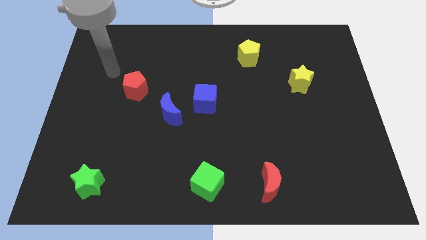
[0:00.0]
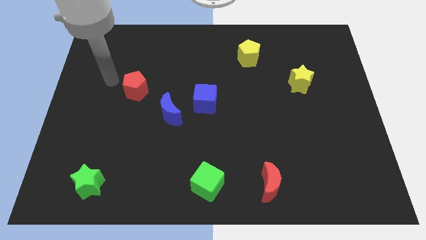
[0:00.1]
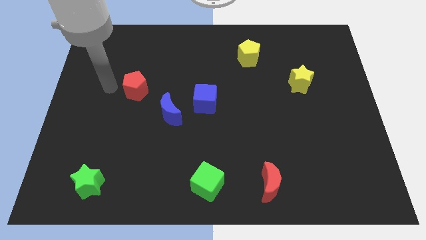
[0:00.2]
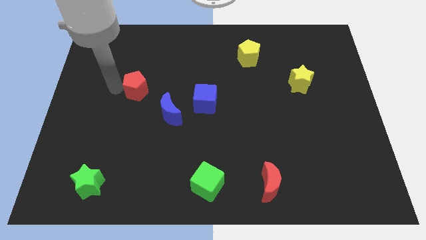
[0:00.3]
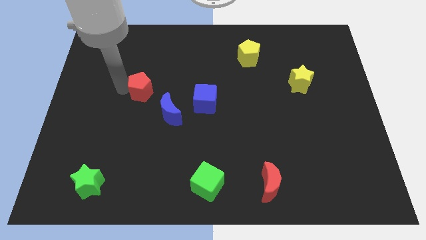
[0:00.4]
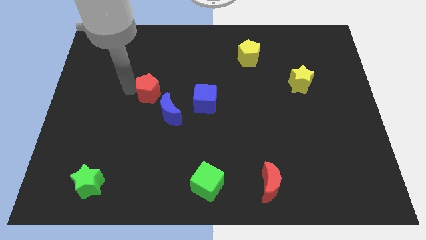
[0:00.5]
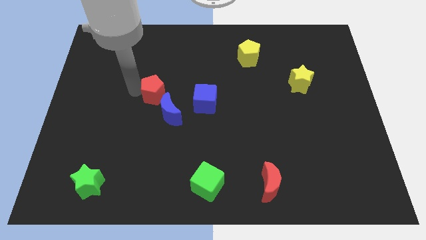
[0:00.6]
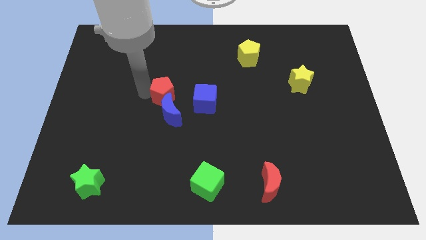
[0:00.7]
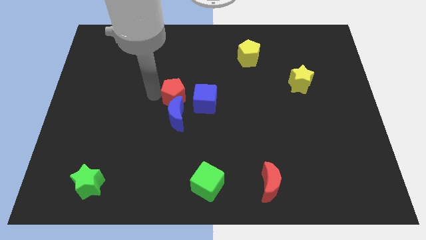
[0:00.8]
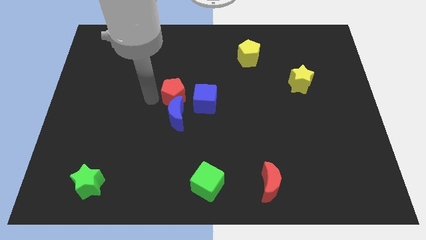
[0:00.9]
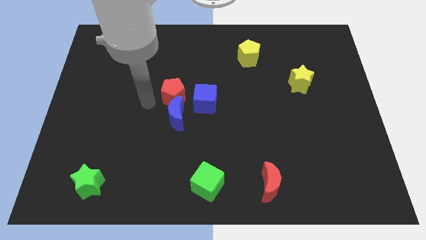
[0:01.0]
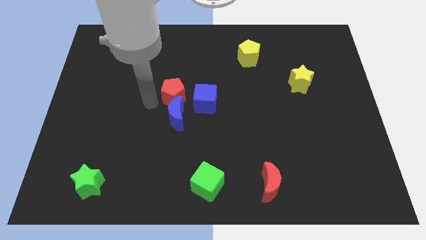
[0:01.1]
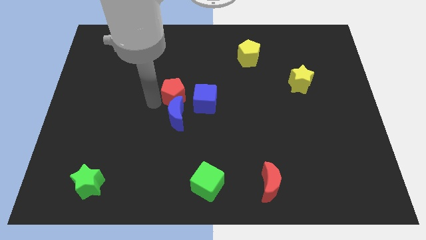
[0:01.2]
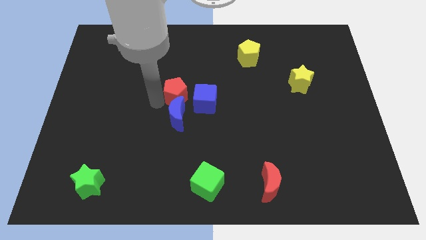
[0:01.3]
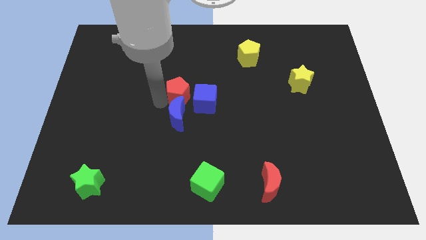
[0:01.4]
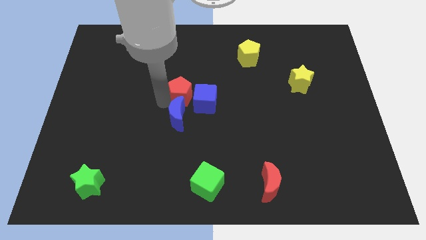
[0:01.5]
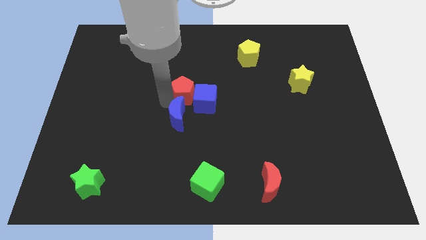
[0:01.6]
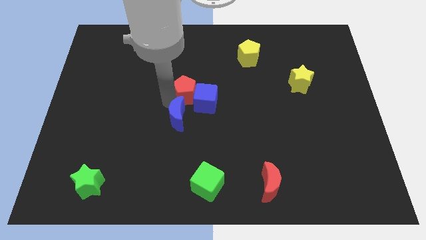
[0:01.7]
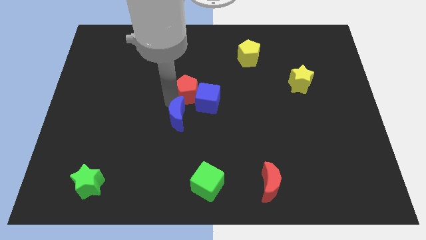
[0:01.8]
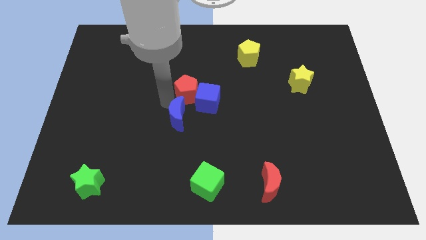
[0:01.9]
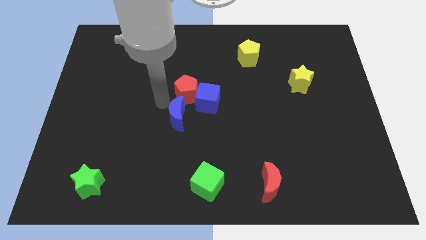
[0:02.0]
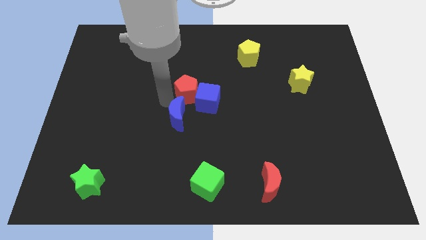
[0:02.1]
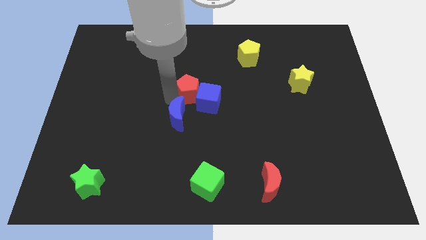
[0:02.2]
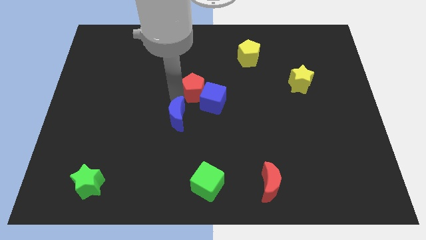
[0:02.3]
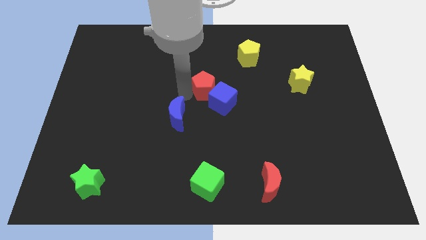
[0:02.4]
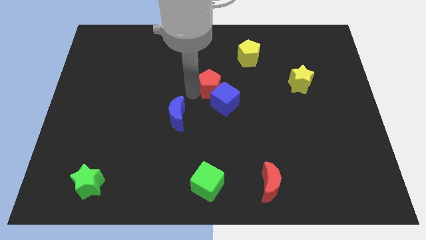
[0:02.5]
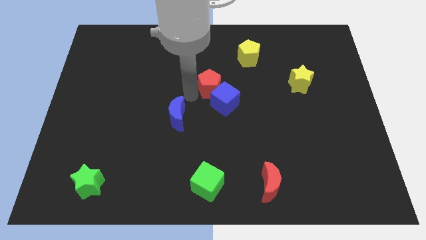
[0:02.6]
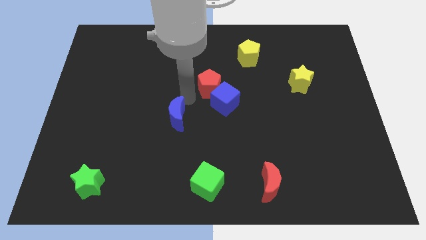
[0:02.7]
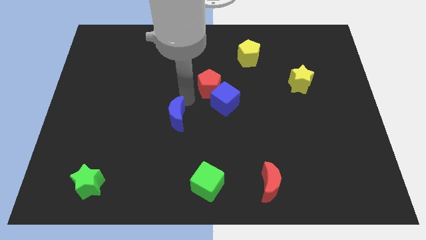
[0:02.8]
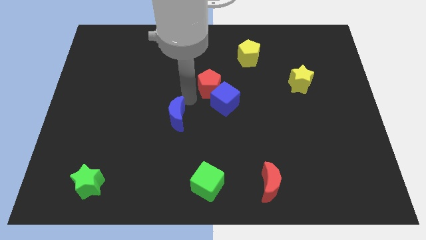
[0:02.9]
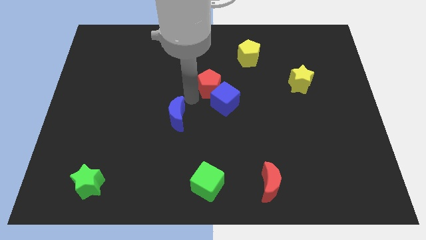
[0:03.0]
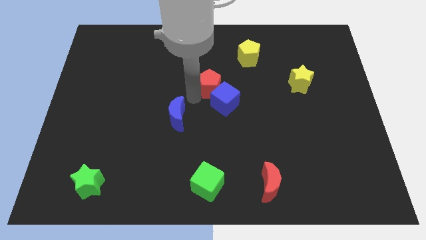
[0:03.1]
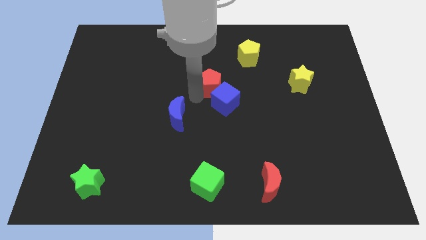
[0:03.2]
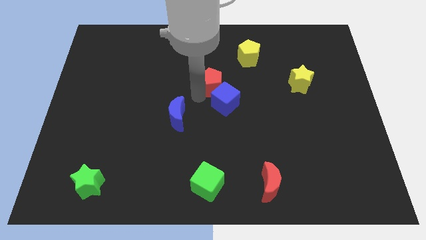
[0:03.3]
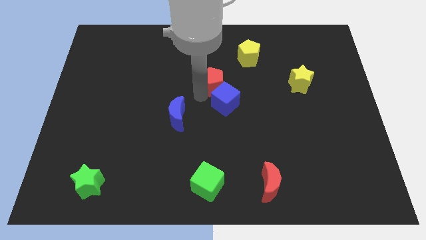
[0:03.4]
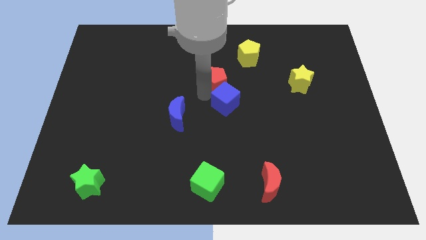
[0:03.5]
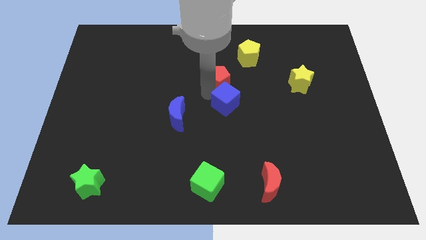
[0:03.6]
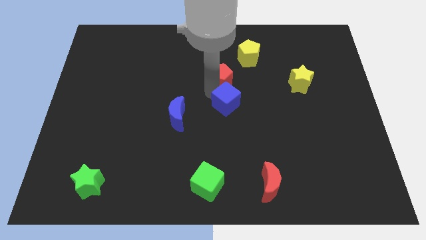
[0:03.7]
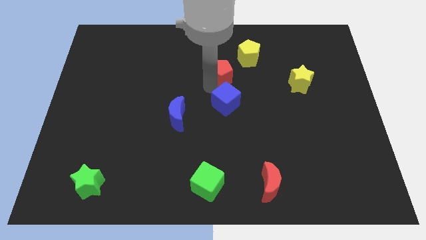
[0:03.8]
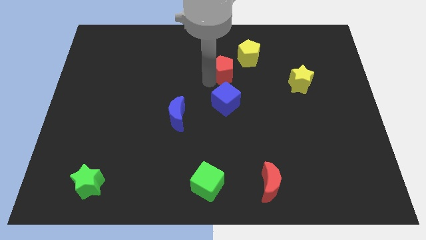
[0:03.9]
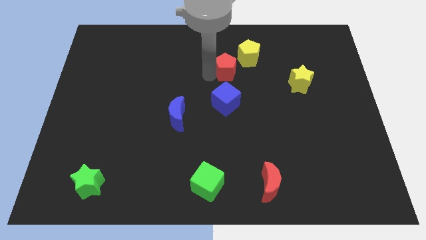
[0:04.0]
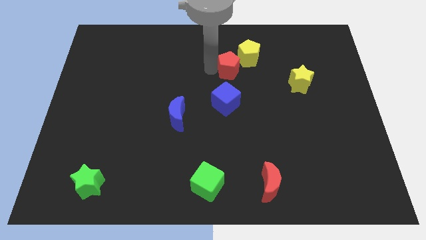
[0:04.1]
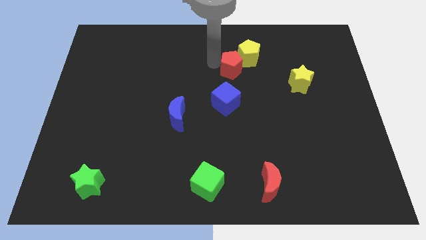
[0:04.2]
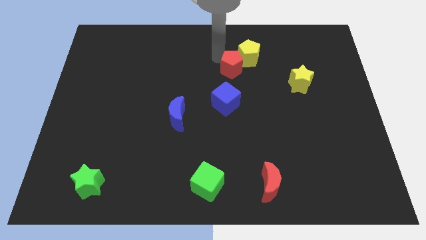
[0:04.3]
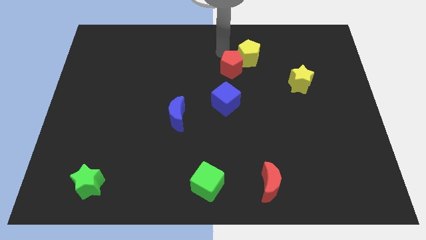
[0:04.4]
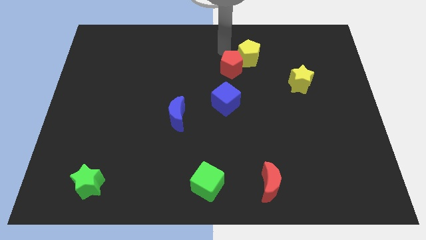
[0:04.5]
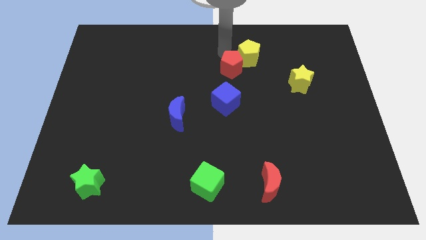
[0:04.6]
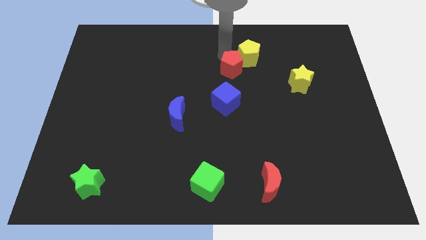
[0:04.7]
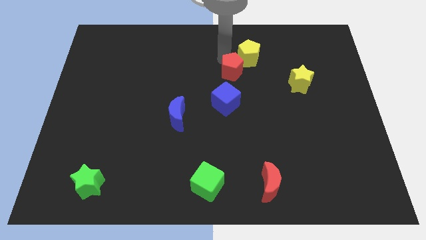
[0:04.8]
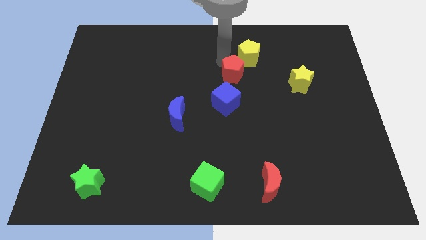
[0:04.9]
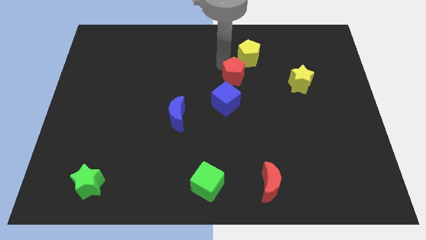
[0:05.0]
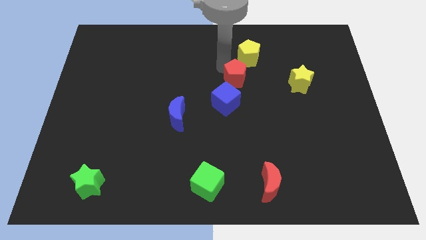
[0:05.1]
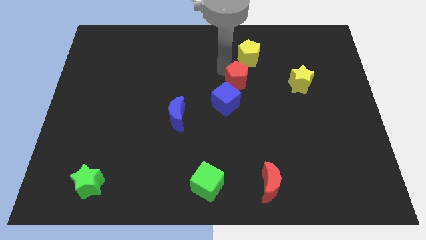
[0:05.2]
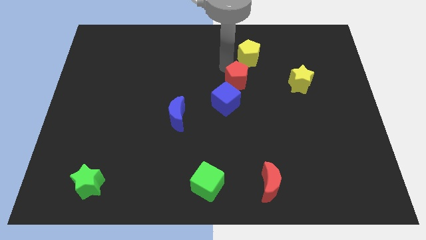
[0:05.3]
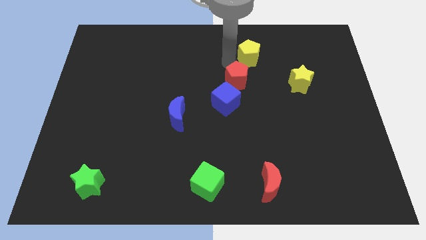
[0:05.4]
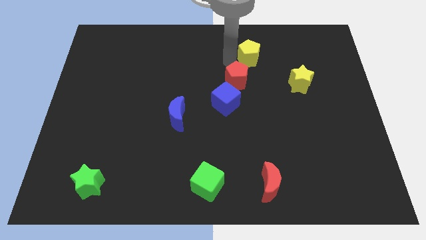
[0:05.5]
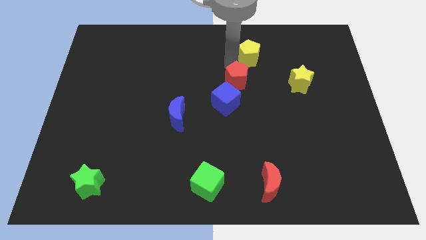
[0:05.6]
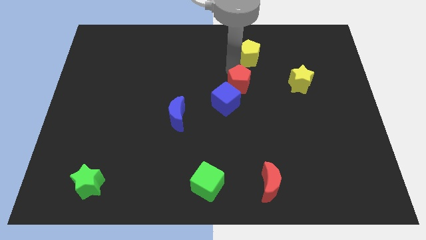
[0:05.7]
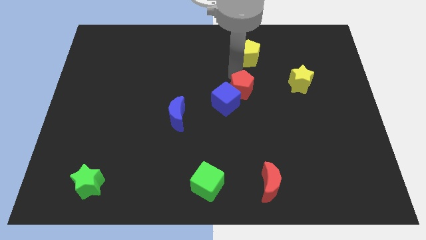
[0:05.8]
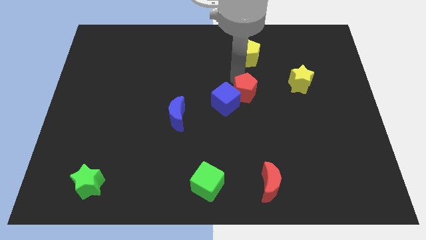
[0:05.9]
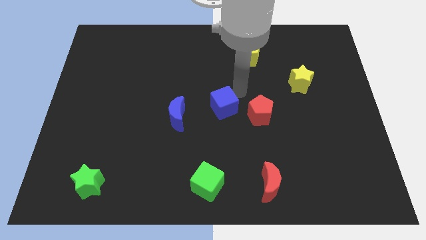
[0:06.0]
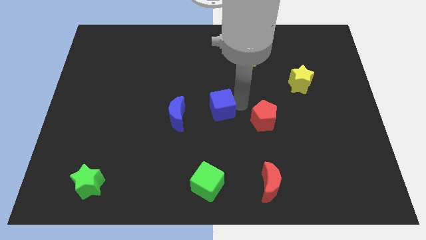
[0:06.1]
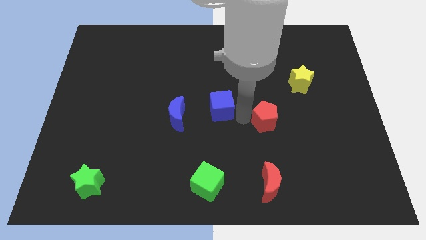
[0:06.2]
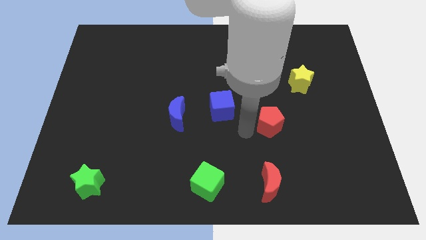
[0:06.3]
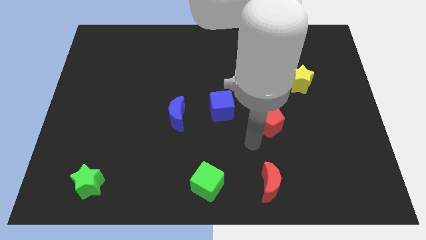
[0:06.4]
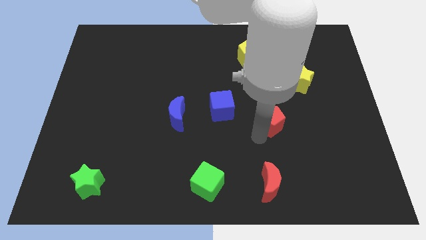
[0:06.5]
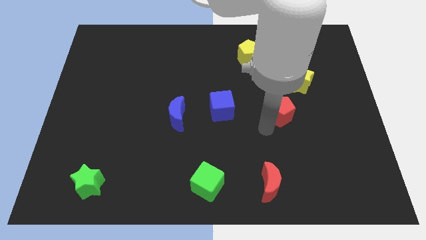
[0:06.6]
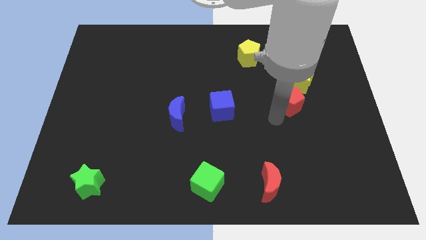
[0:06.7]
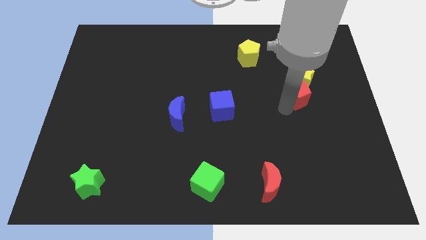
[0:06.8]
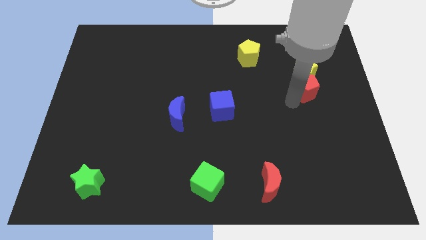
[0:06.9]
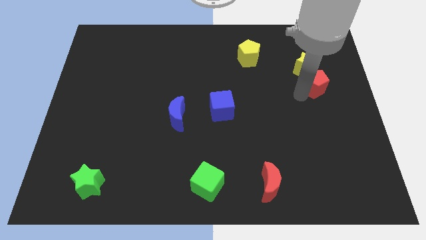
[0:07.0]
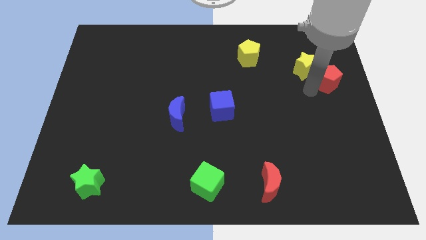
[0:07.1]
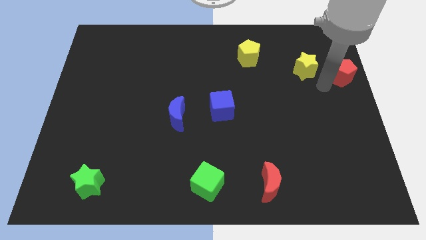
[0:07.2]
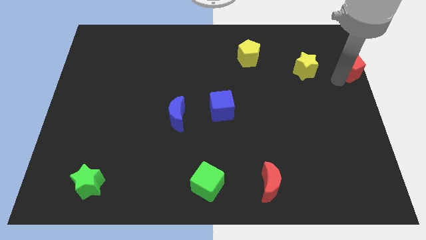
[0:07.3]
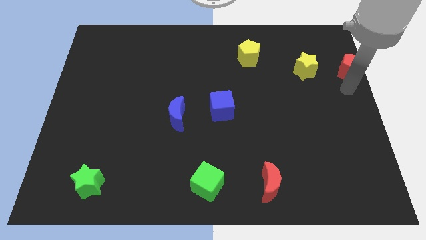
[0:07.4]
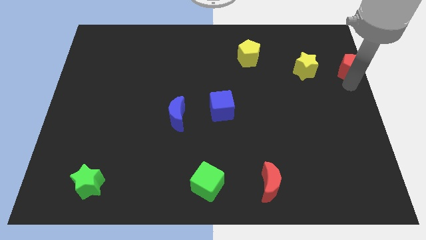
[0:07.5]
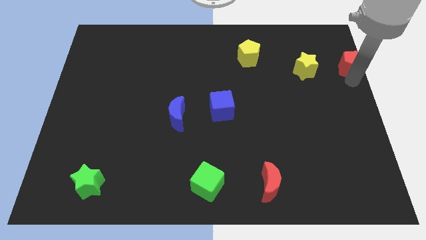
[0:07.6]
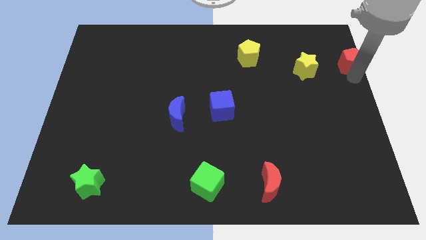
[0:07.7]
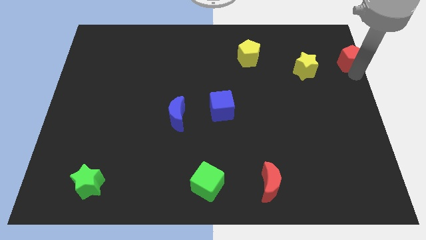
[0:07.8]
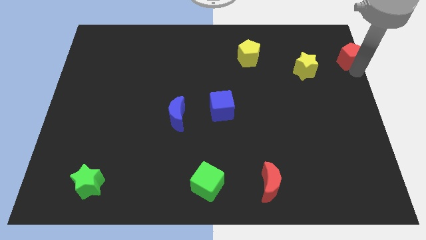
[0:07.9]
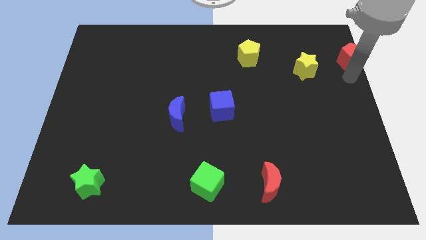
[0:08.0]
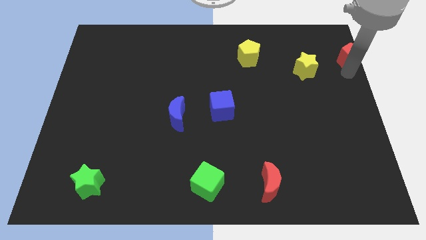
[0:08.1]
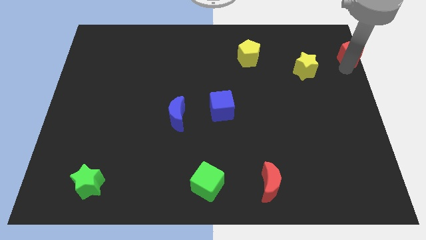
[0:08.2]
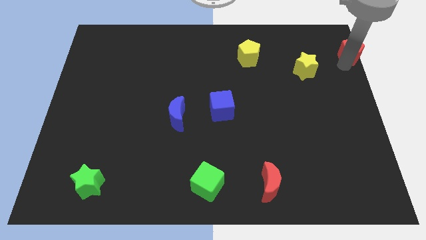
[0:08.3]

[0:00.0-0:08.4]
push the red pentagon to the upper right corner
